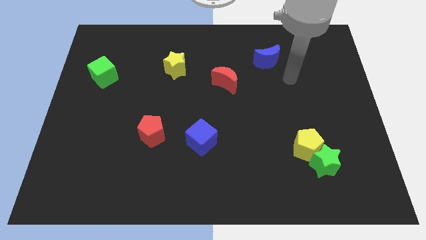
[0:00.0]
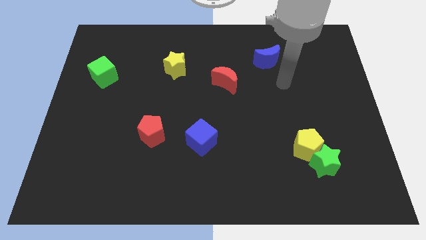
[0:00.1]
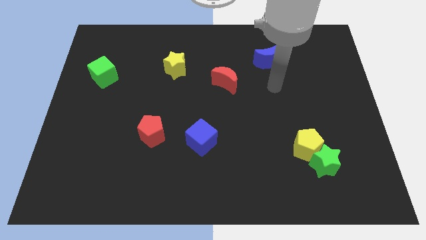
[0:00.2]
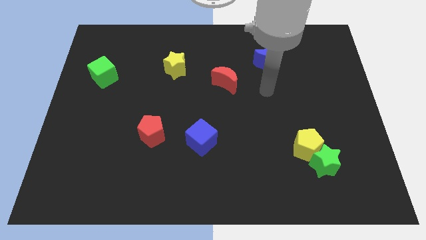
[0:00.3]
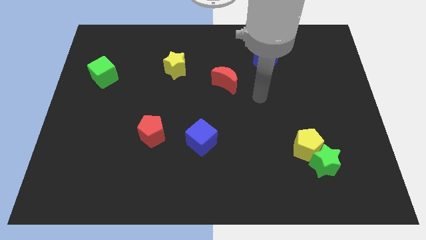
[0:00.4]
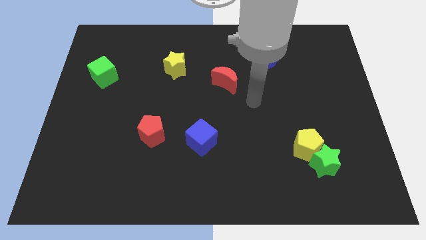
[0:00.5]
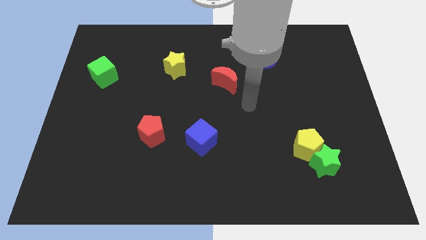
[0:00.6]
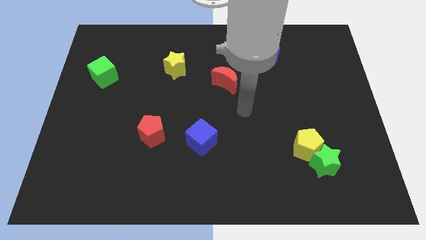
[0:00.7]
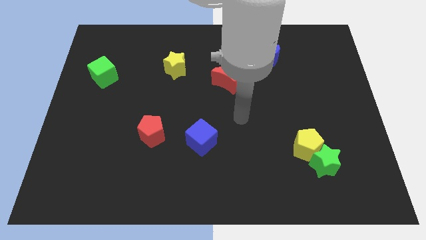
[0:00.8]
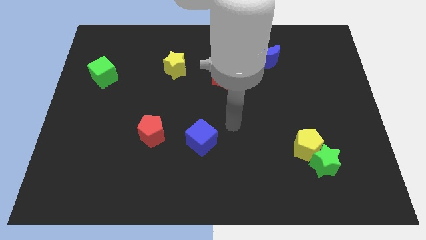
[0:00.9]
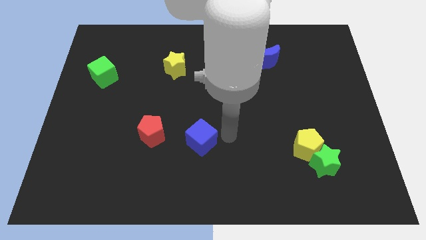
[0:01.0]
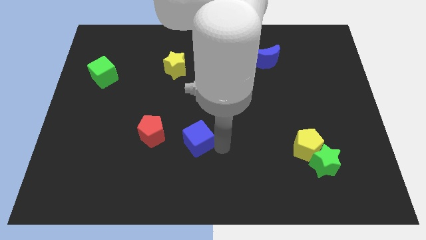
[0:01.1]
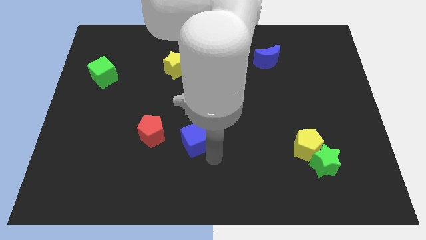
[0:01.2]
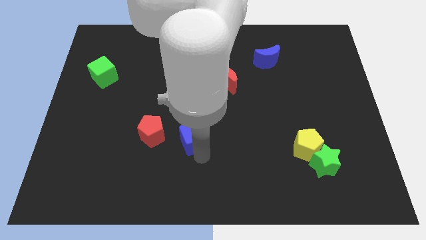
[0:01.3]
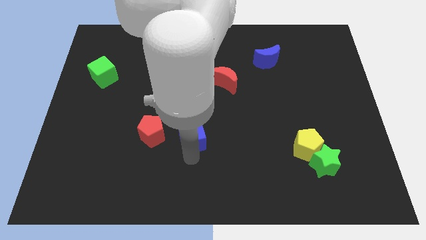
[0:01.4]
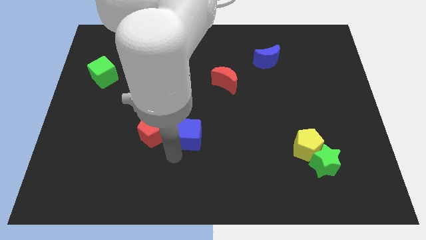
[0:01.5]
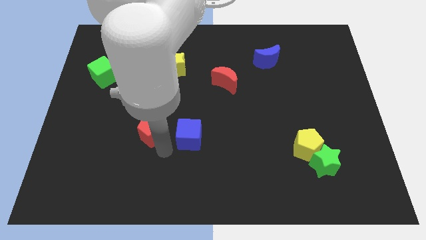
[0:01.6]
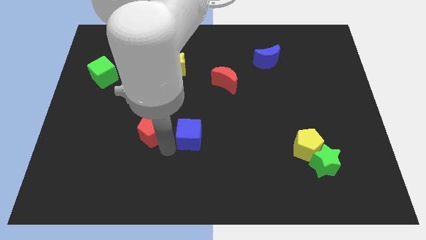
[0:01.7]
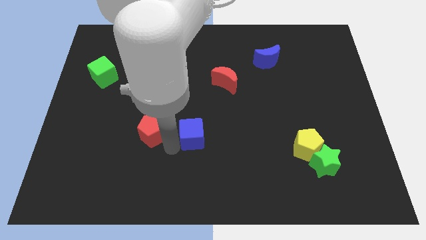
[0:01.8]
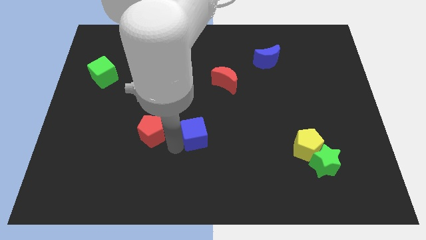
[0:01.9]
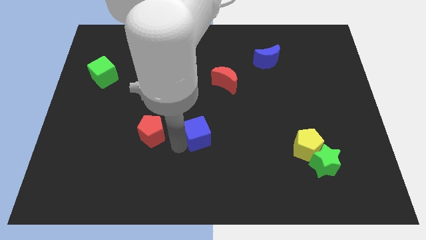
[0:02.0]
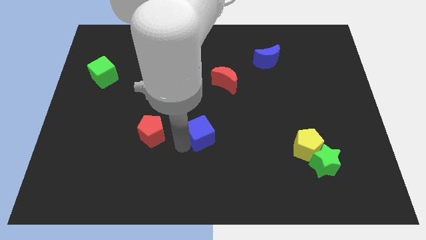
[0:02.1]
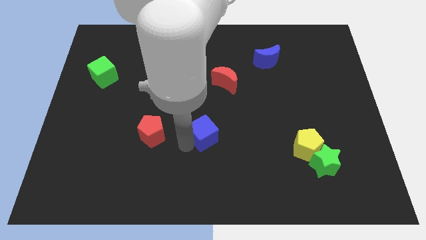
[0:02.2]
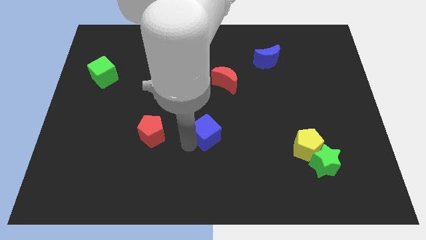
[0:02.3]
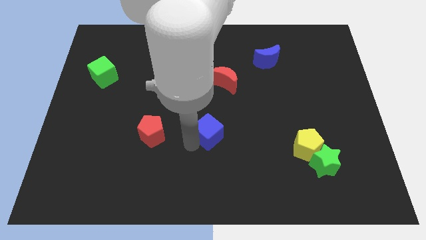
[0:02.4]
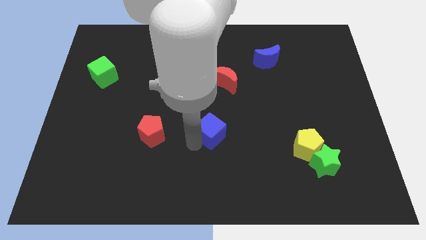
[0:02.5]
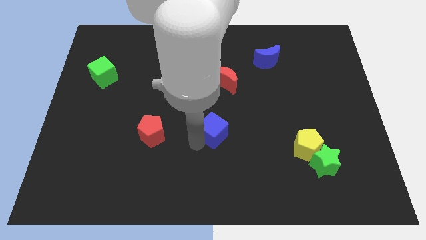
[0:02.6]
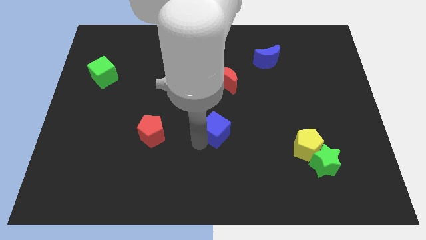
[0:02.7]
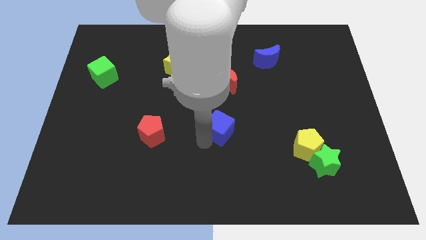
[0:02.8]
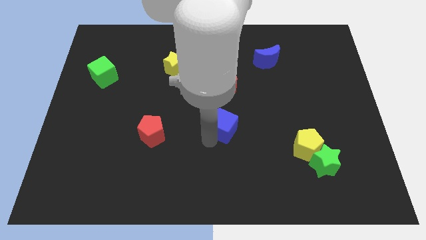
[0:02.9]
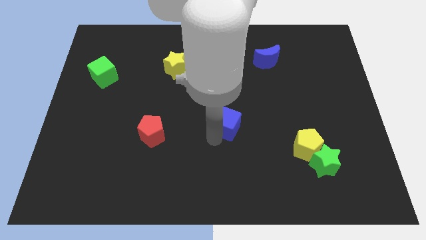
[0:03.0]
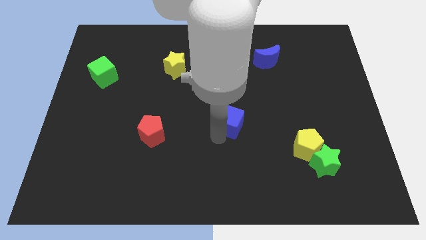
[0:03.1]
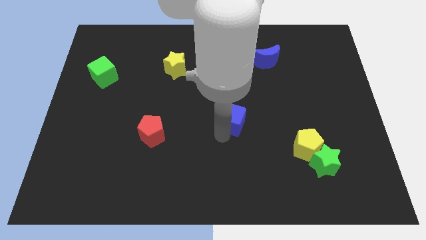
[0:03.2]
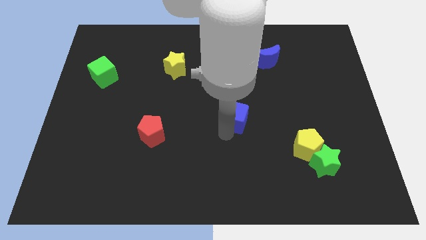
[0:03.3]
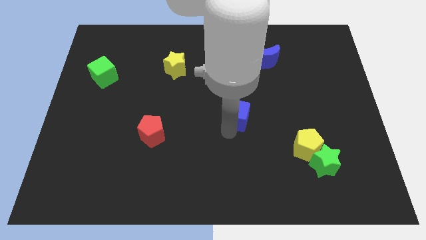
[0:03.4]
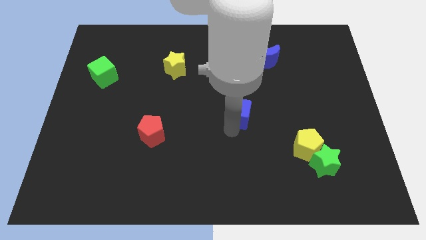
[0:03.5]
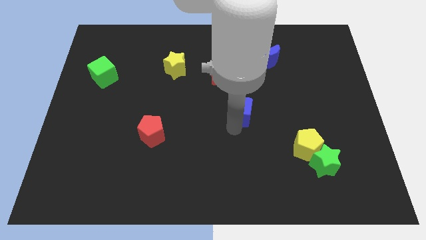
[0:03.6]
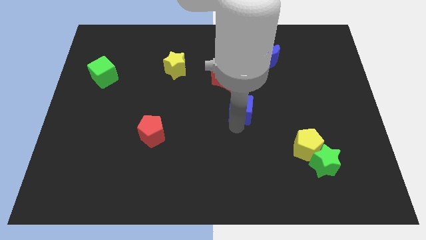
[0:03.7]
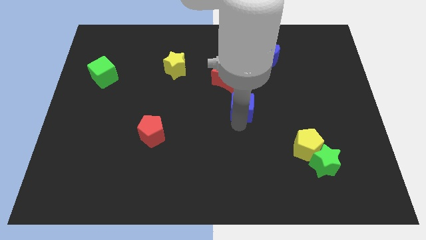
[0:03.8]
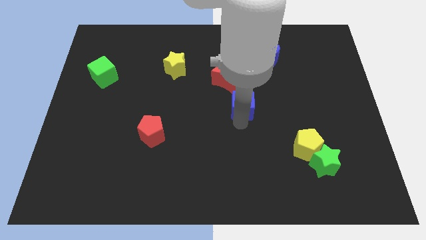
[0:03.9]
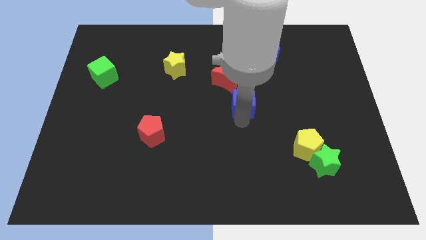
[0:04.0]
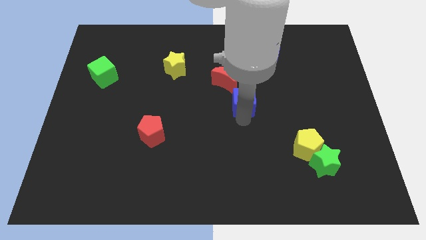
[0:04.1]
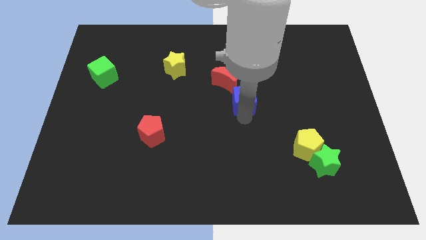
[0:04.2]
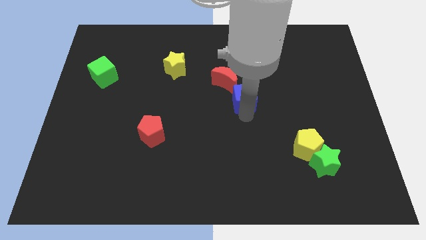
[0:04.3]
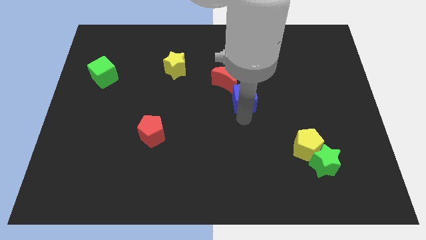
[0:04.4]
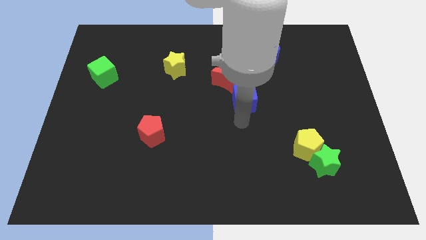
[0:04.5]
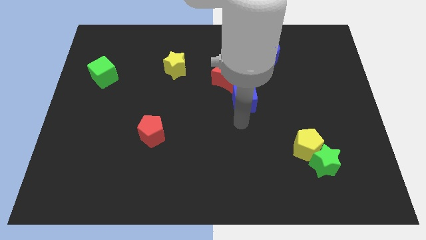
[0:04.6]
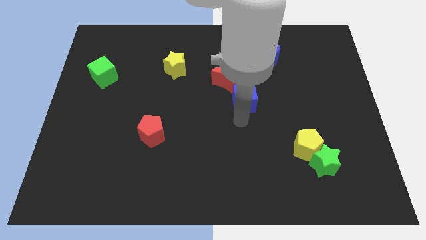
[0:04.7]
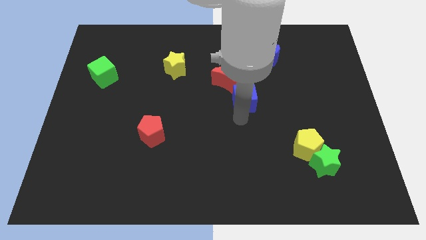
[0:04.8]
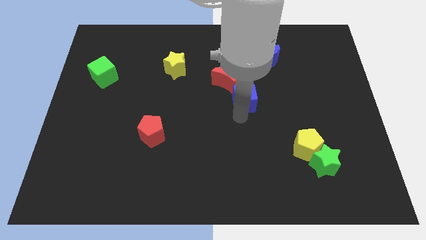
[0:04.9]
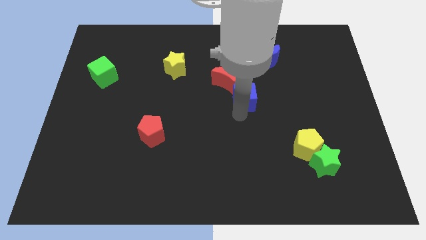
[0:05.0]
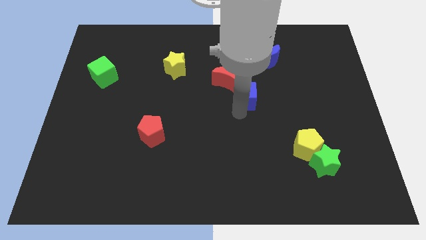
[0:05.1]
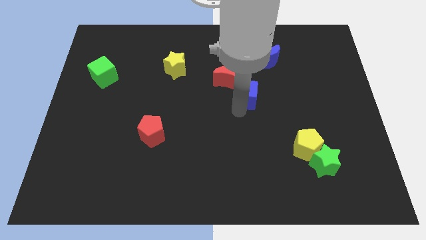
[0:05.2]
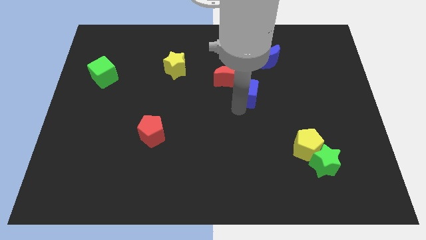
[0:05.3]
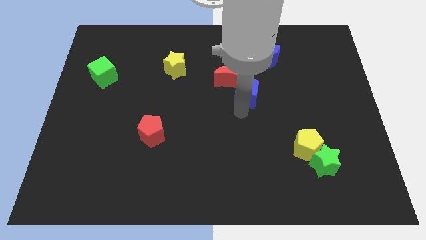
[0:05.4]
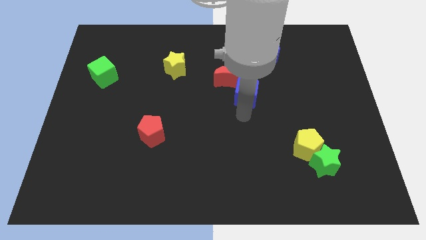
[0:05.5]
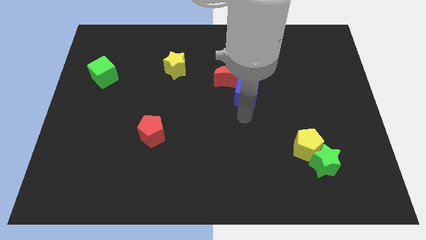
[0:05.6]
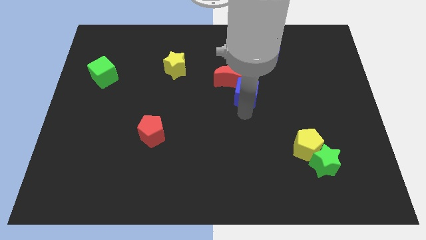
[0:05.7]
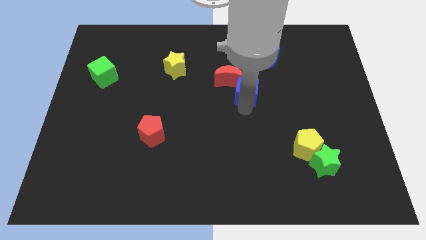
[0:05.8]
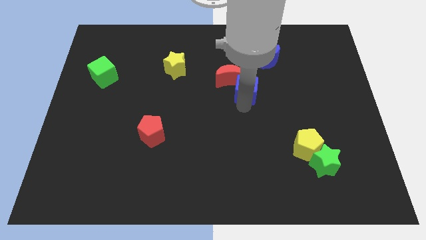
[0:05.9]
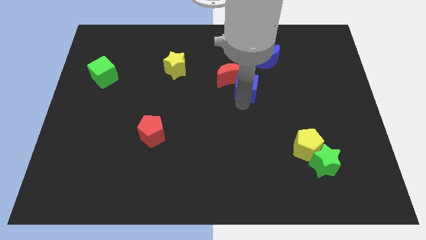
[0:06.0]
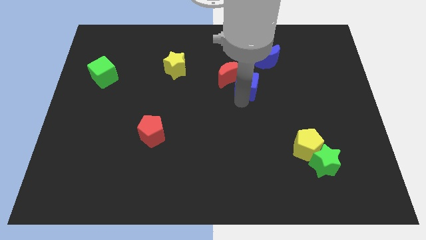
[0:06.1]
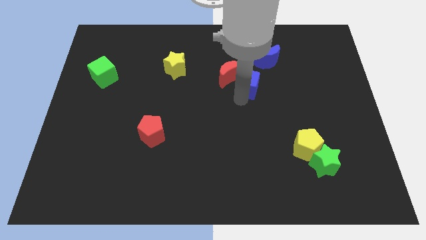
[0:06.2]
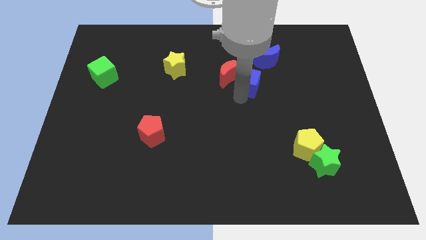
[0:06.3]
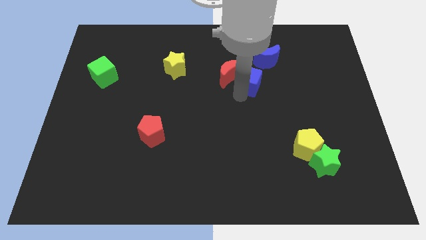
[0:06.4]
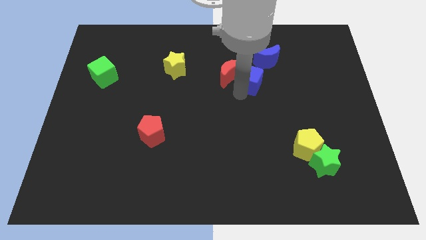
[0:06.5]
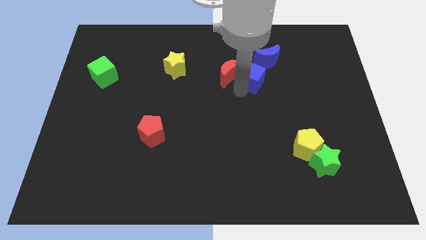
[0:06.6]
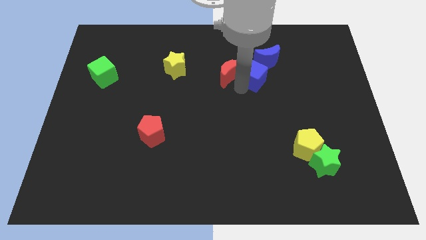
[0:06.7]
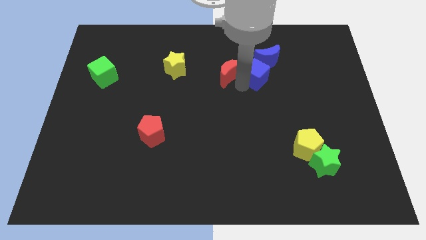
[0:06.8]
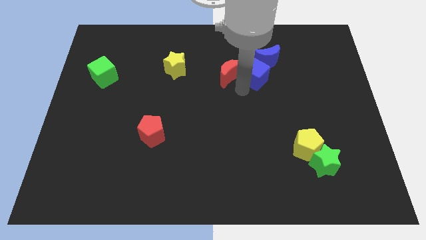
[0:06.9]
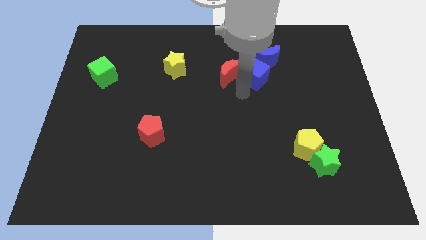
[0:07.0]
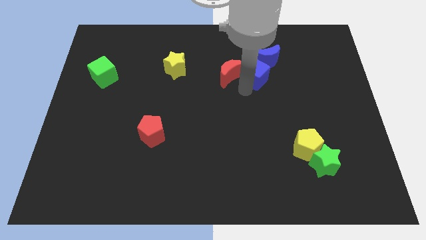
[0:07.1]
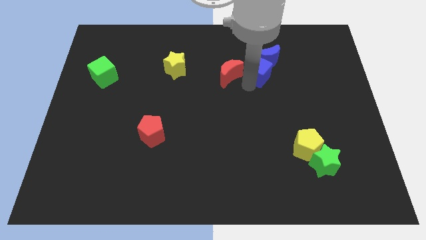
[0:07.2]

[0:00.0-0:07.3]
move the blue cube towards the blue moon

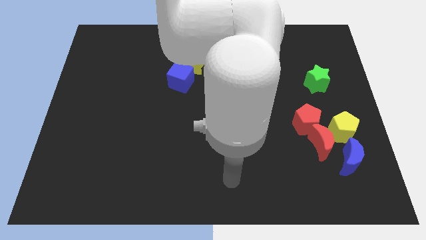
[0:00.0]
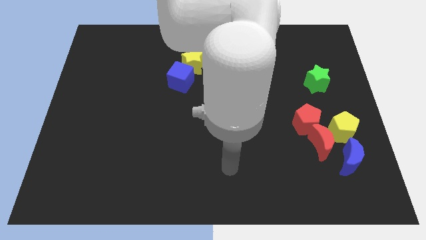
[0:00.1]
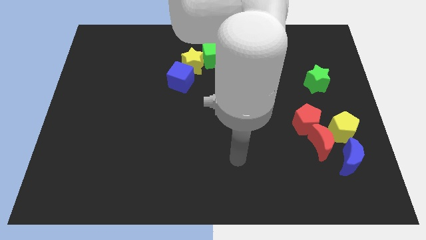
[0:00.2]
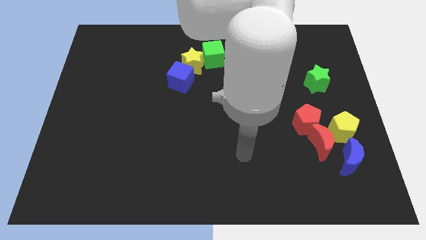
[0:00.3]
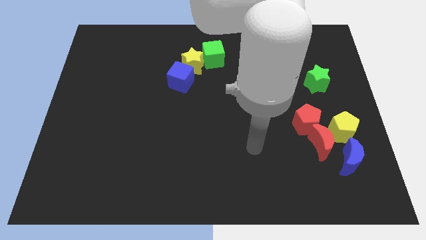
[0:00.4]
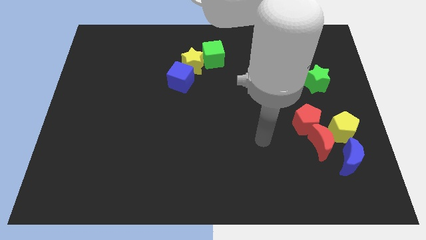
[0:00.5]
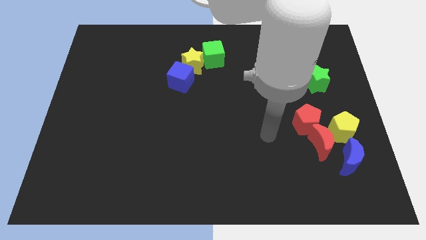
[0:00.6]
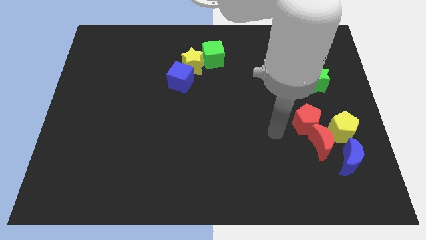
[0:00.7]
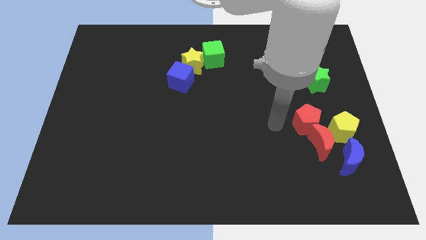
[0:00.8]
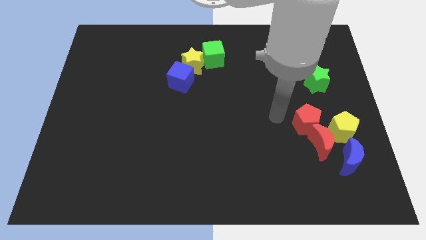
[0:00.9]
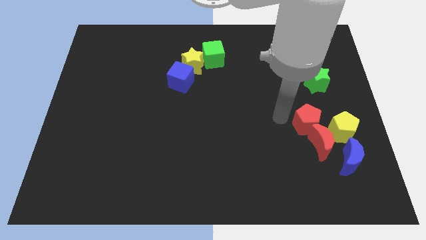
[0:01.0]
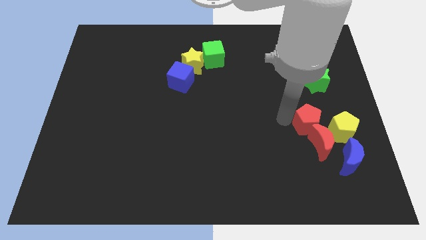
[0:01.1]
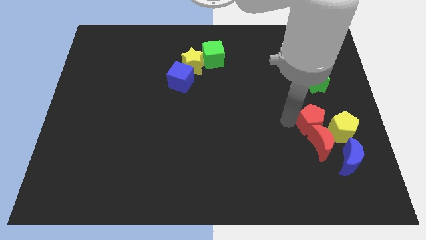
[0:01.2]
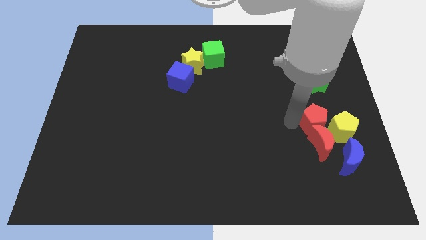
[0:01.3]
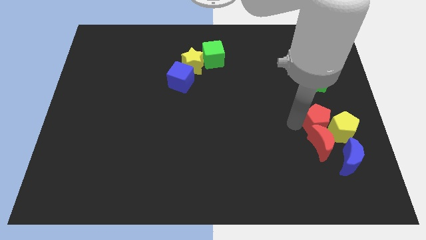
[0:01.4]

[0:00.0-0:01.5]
put the red pentagon next to the yellow pentagon
